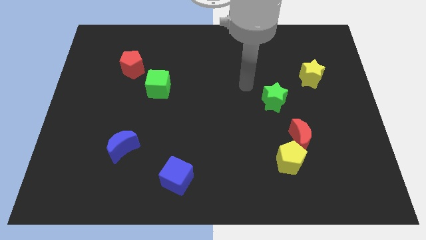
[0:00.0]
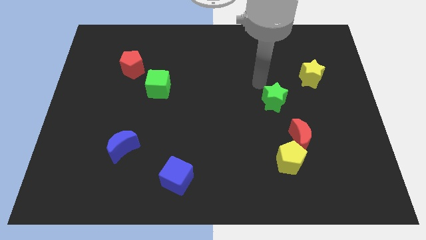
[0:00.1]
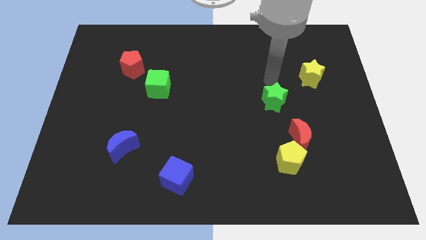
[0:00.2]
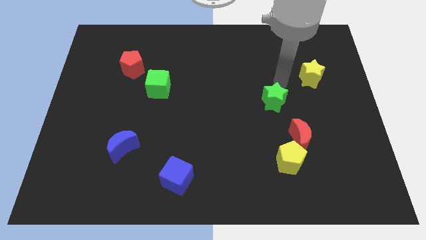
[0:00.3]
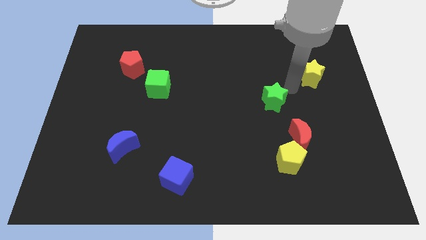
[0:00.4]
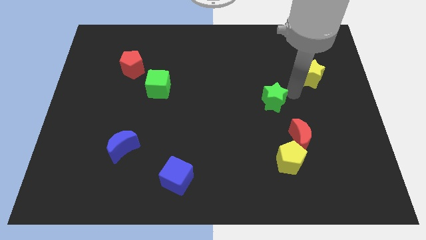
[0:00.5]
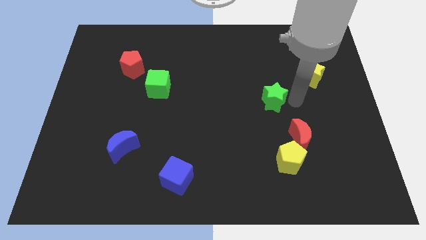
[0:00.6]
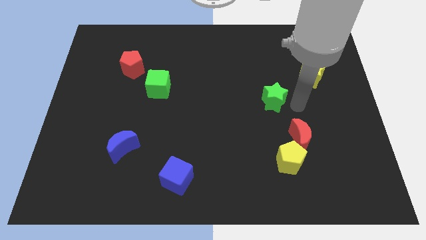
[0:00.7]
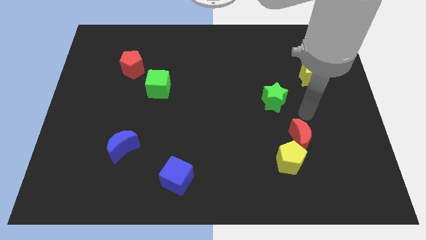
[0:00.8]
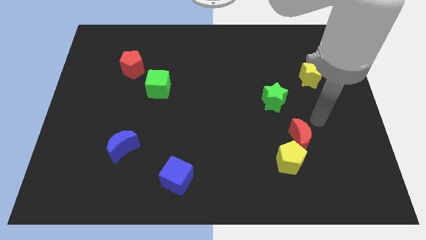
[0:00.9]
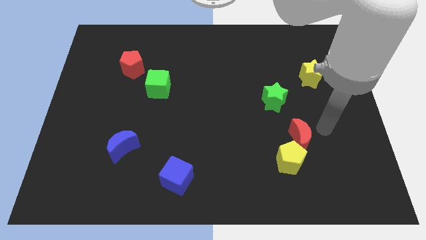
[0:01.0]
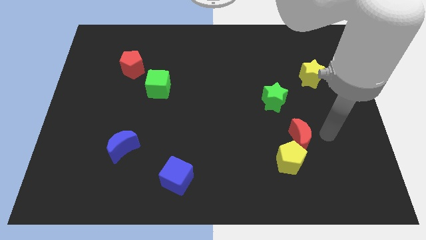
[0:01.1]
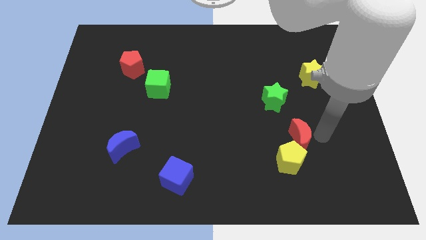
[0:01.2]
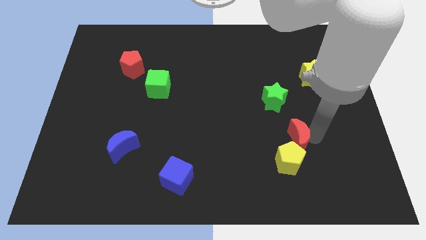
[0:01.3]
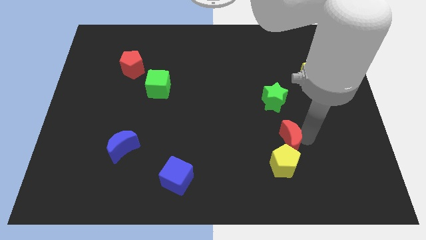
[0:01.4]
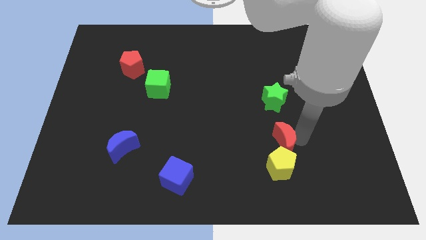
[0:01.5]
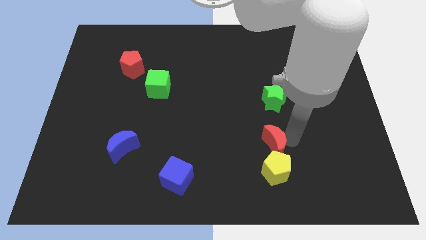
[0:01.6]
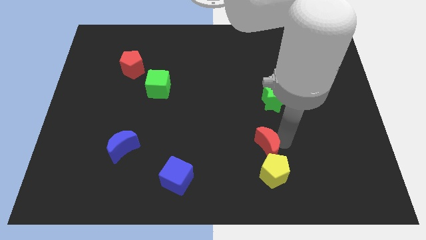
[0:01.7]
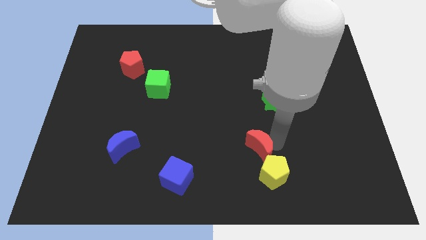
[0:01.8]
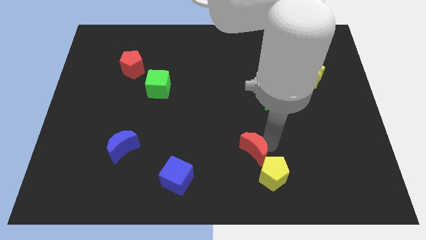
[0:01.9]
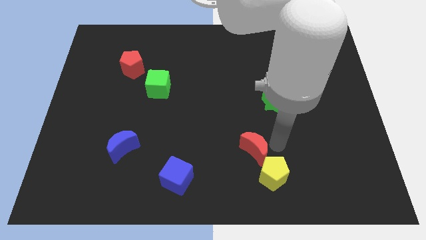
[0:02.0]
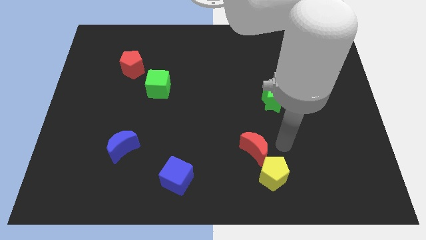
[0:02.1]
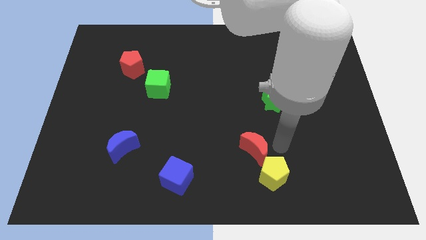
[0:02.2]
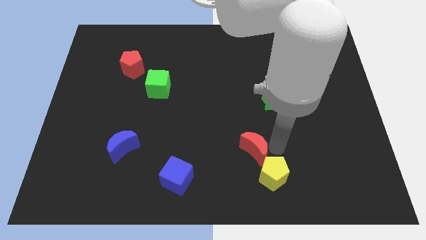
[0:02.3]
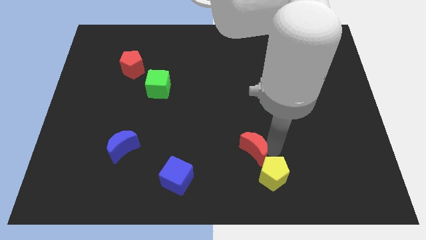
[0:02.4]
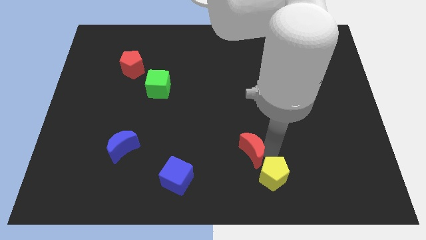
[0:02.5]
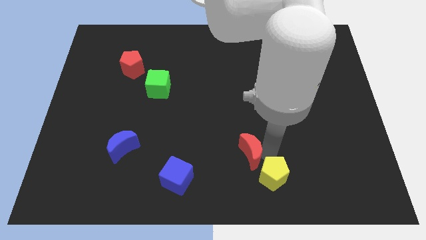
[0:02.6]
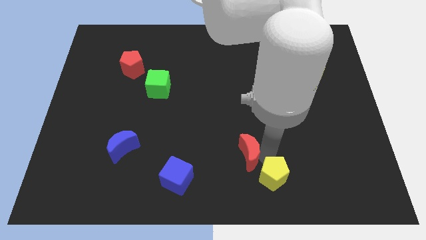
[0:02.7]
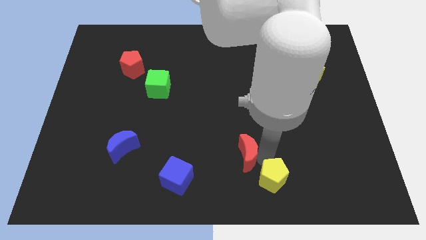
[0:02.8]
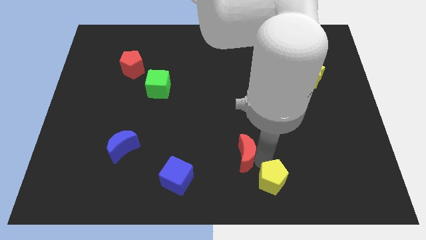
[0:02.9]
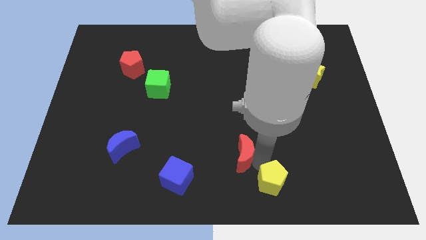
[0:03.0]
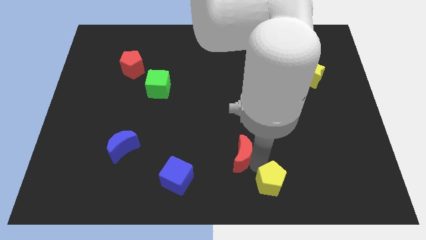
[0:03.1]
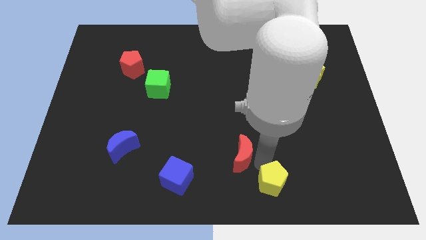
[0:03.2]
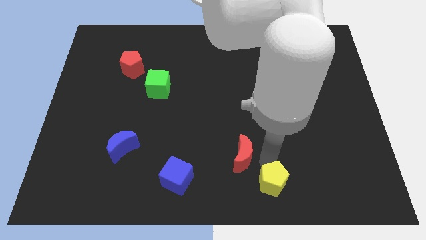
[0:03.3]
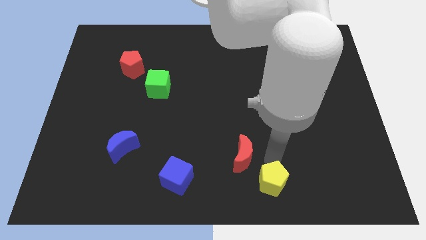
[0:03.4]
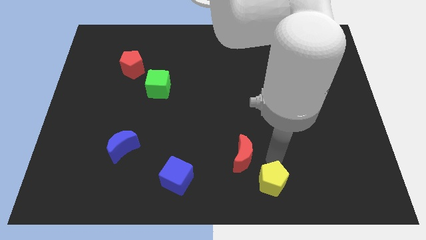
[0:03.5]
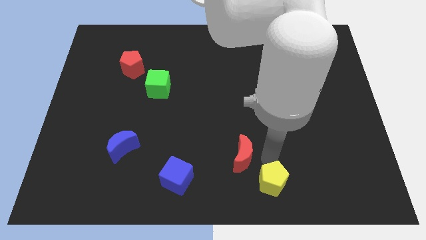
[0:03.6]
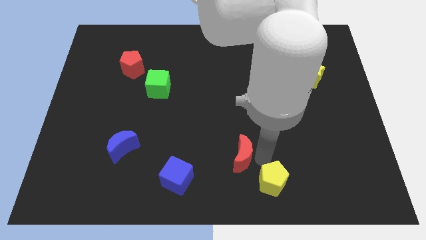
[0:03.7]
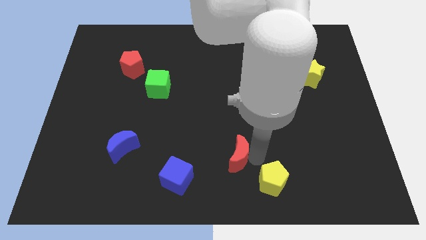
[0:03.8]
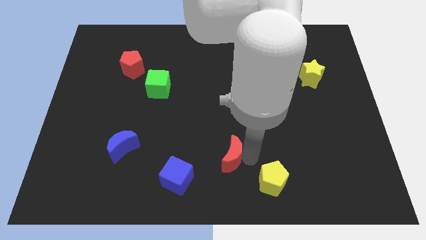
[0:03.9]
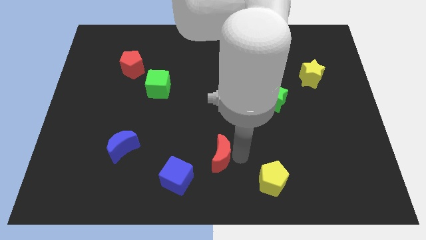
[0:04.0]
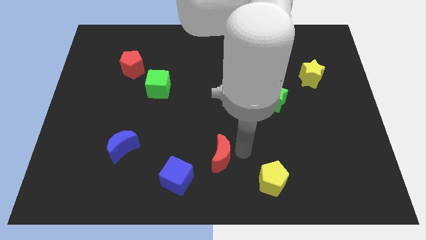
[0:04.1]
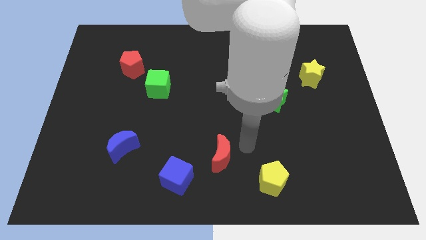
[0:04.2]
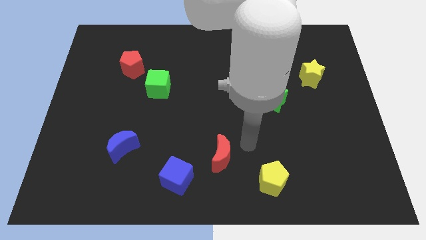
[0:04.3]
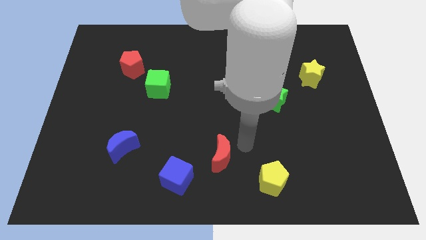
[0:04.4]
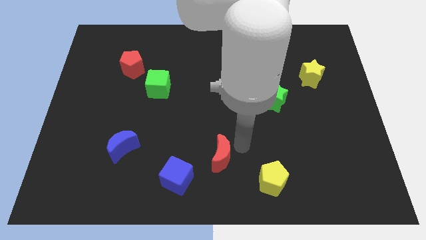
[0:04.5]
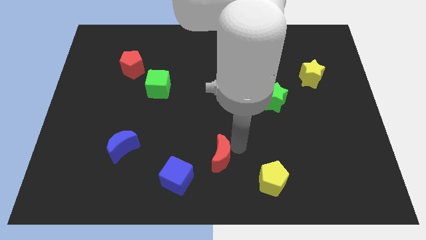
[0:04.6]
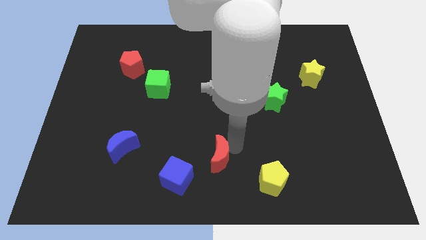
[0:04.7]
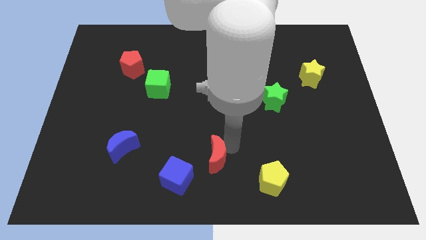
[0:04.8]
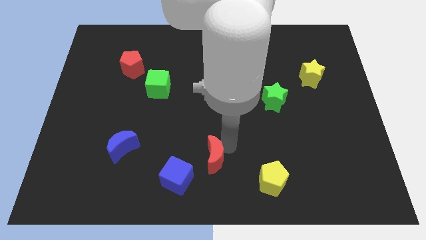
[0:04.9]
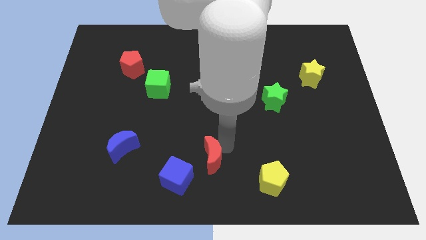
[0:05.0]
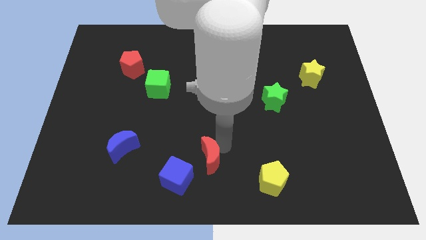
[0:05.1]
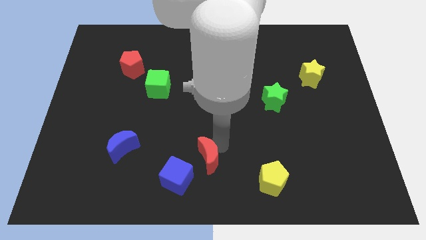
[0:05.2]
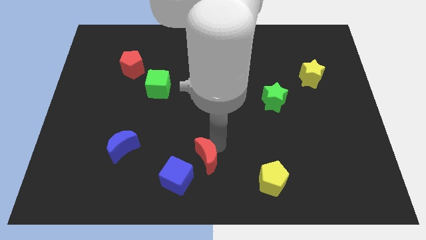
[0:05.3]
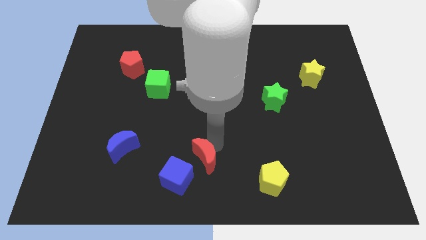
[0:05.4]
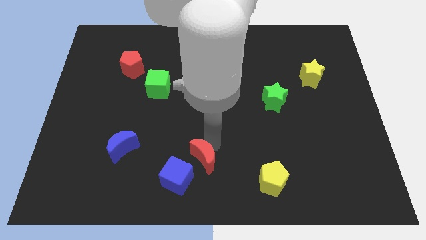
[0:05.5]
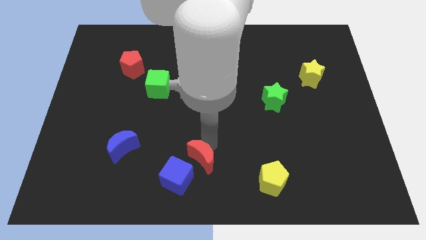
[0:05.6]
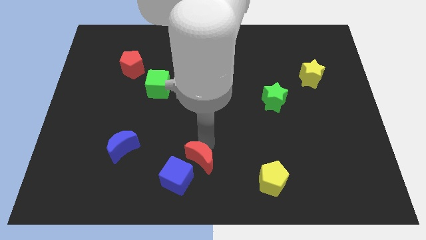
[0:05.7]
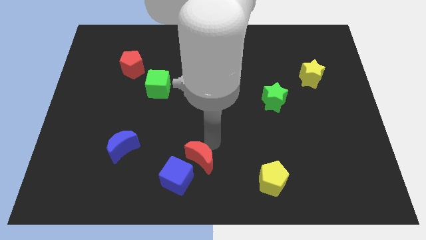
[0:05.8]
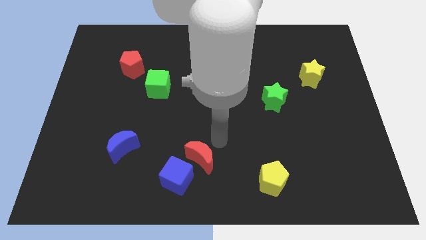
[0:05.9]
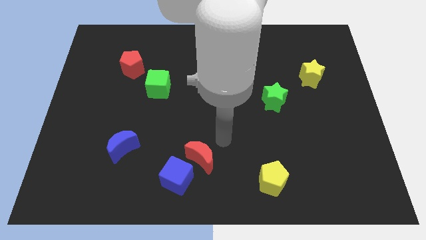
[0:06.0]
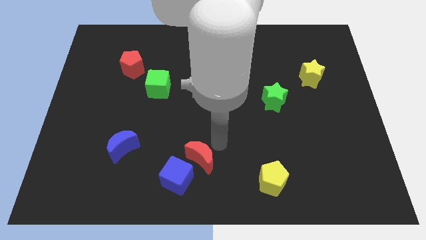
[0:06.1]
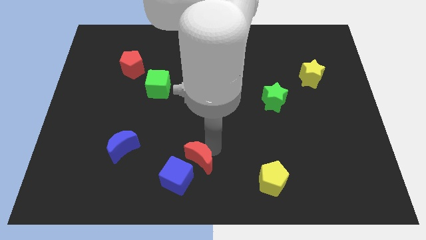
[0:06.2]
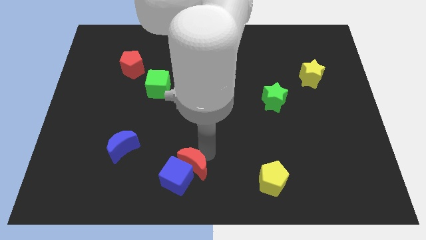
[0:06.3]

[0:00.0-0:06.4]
slide the red moon towards the blue cube

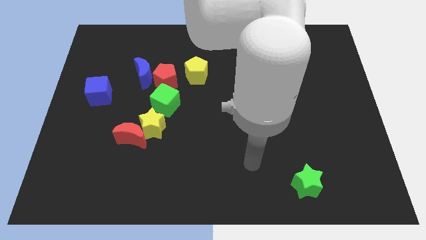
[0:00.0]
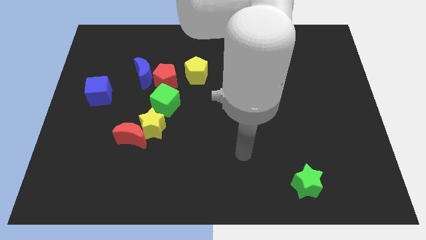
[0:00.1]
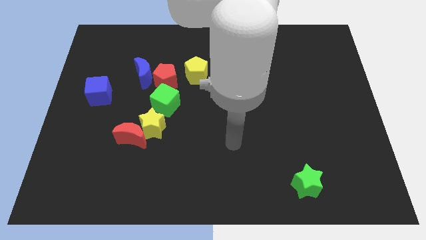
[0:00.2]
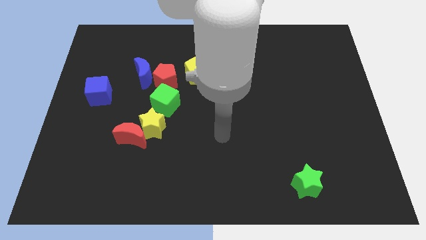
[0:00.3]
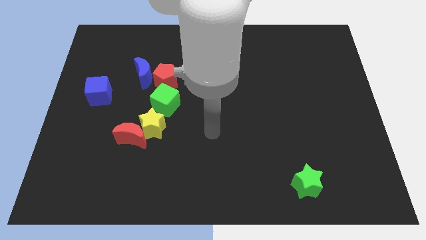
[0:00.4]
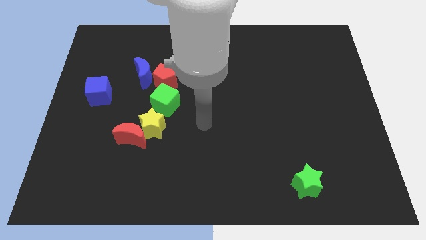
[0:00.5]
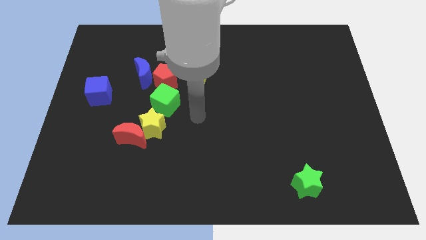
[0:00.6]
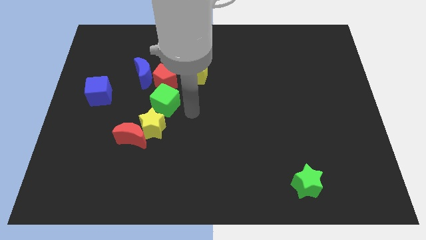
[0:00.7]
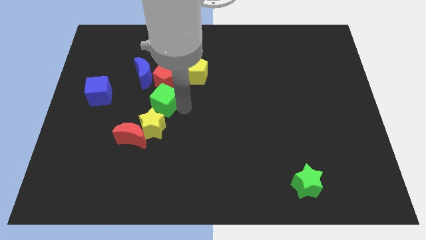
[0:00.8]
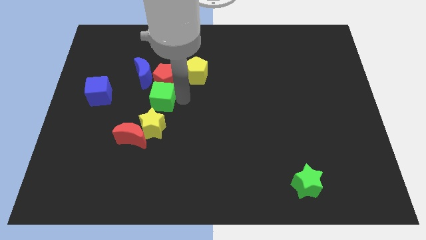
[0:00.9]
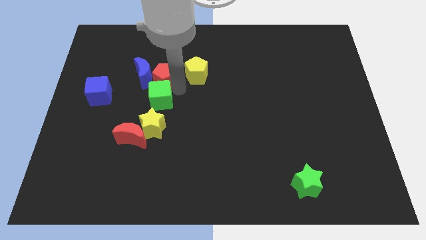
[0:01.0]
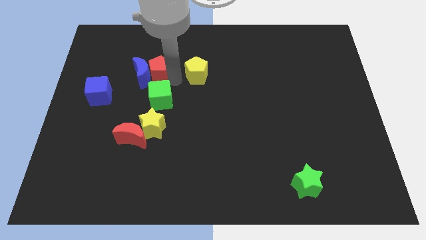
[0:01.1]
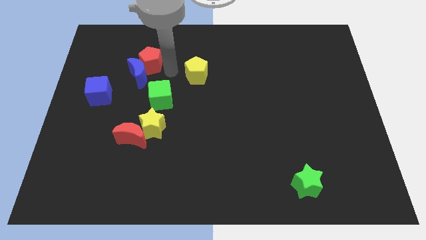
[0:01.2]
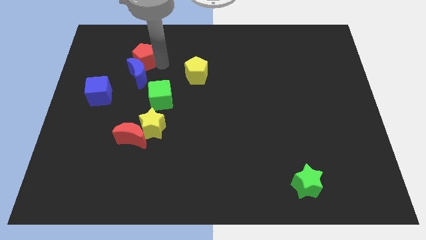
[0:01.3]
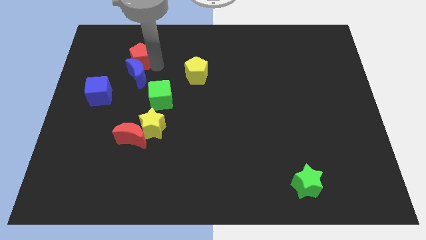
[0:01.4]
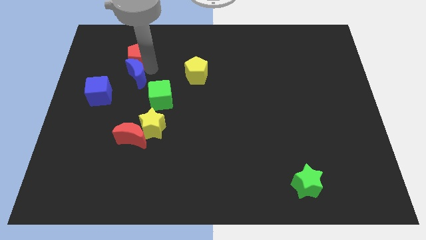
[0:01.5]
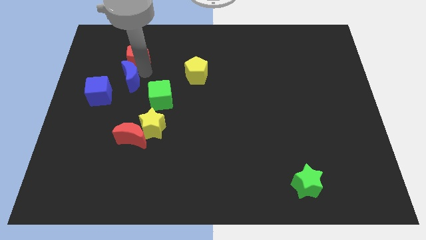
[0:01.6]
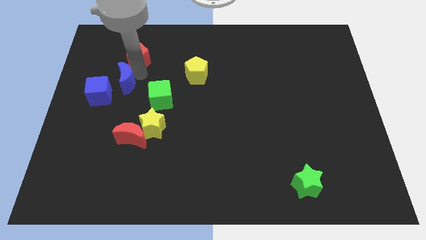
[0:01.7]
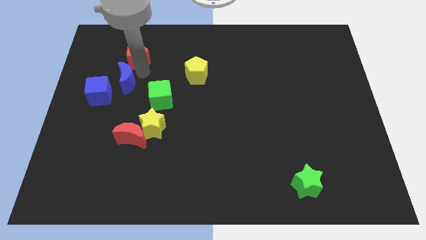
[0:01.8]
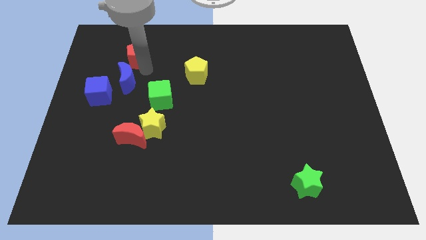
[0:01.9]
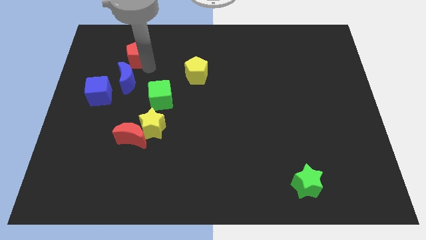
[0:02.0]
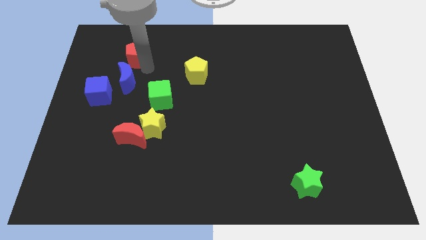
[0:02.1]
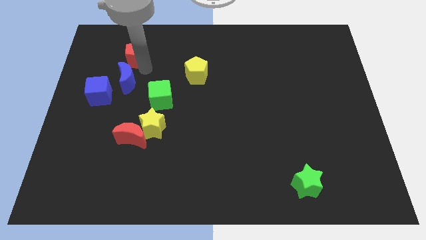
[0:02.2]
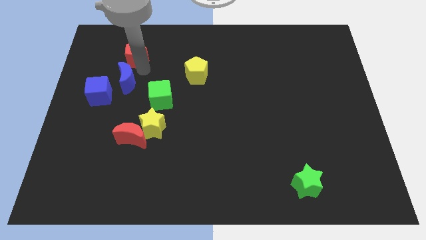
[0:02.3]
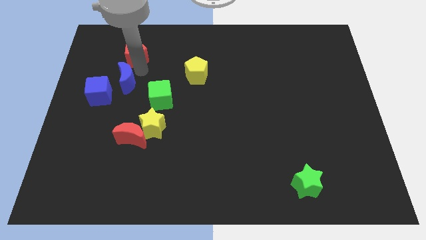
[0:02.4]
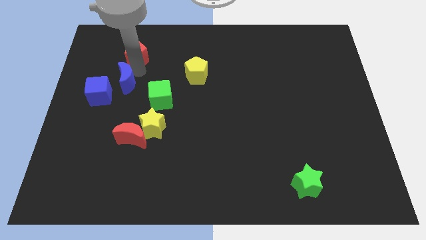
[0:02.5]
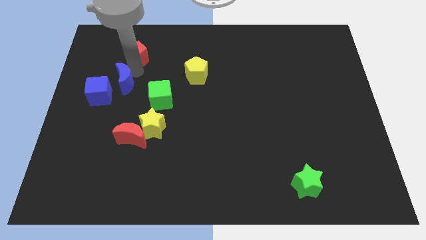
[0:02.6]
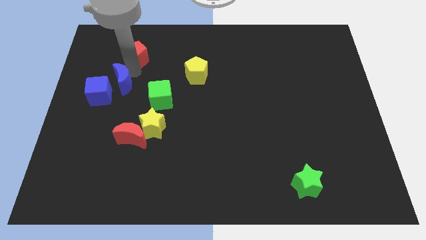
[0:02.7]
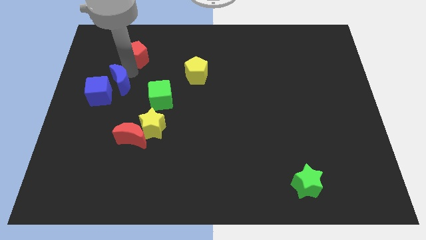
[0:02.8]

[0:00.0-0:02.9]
slide the blue moon close to the blue cube
